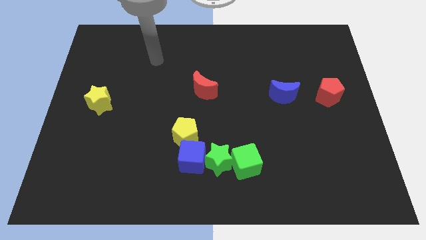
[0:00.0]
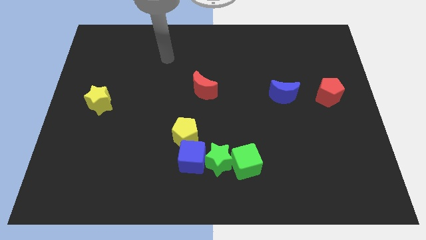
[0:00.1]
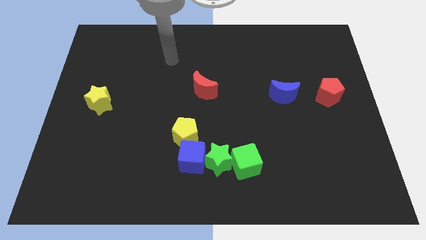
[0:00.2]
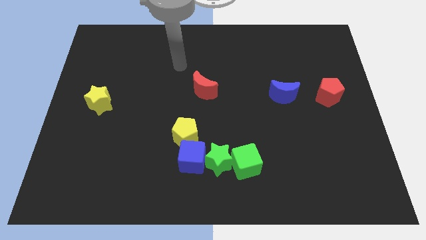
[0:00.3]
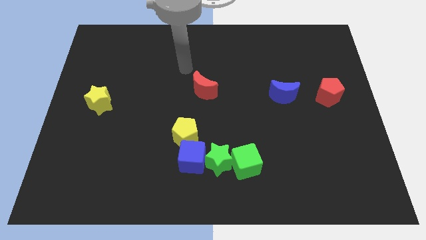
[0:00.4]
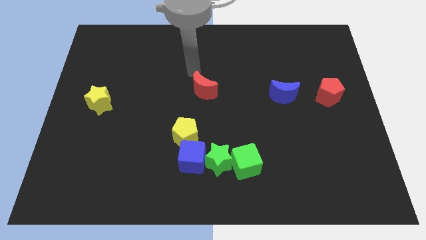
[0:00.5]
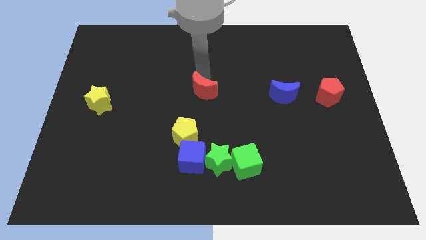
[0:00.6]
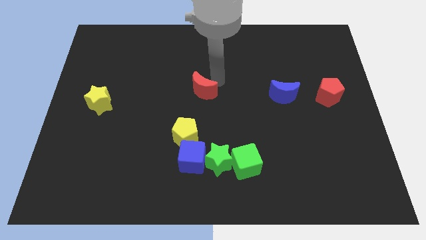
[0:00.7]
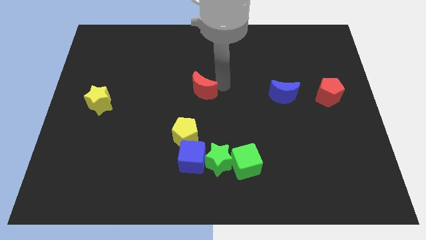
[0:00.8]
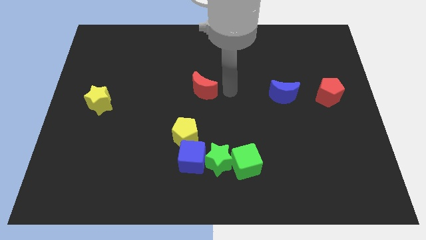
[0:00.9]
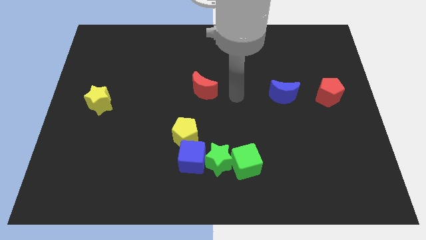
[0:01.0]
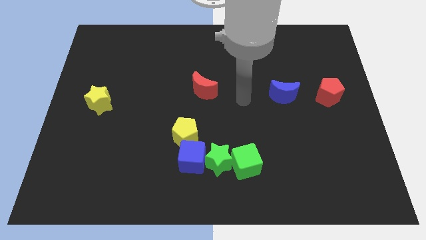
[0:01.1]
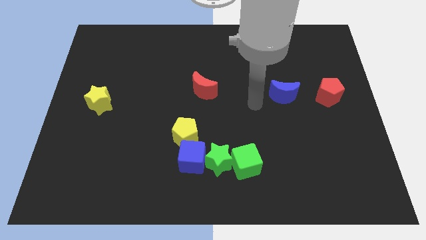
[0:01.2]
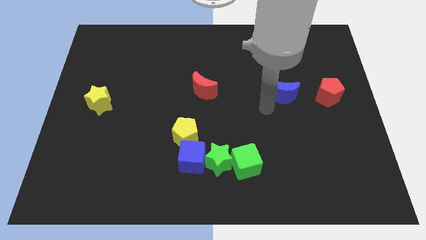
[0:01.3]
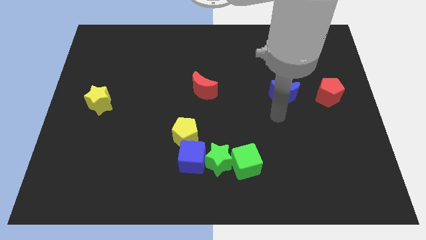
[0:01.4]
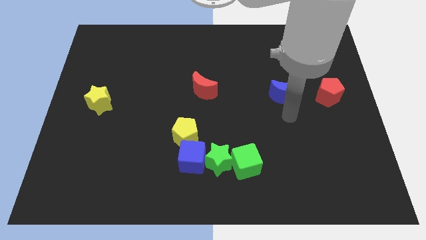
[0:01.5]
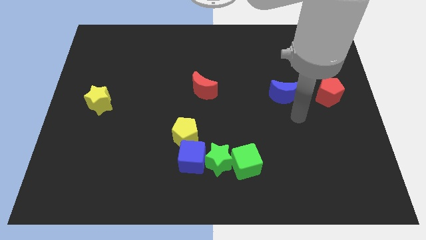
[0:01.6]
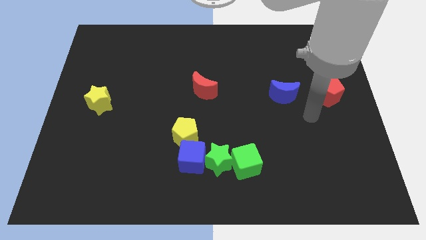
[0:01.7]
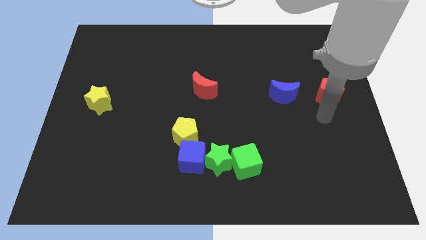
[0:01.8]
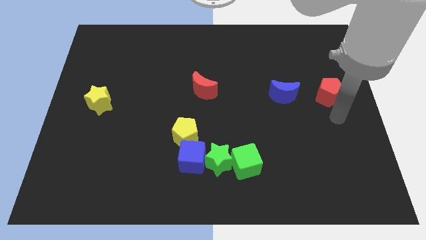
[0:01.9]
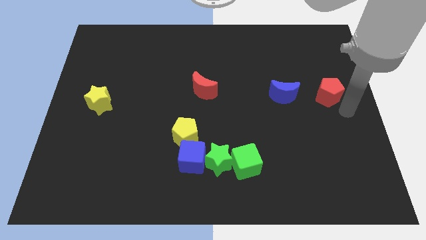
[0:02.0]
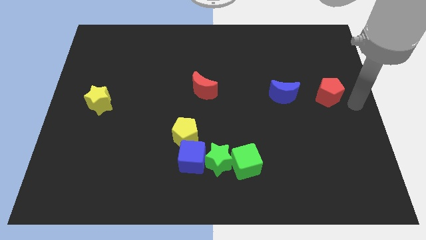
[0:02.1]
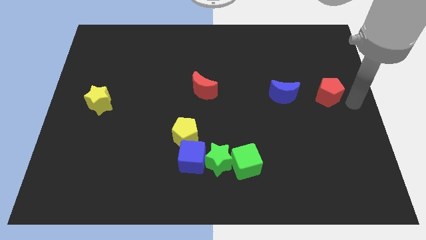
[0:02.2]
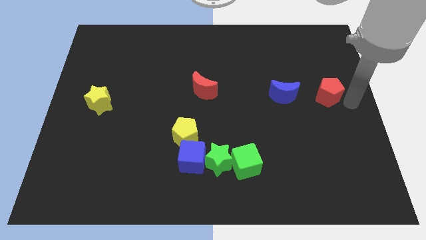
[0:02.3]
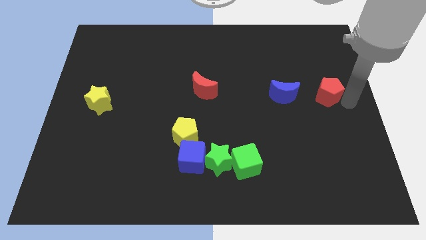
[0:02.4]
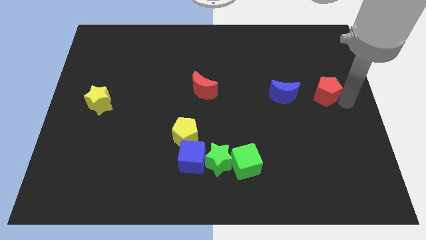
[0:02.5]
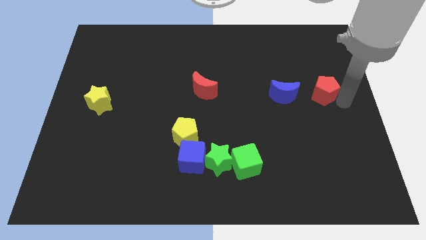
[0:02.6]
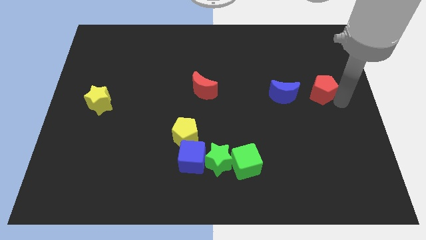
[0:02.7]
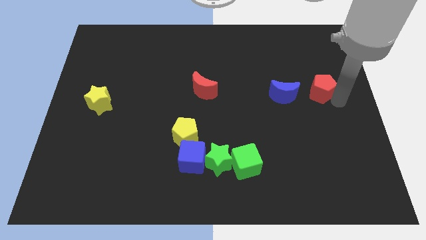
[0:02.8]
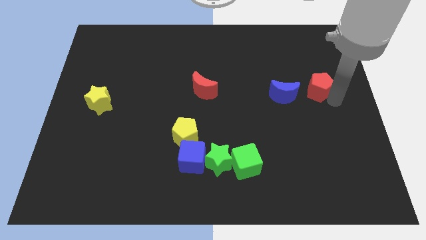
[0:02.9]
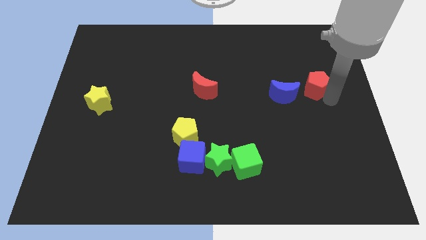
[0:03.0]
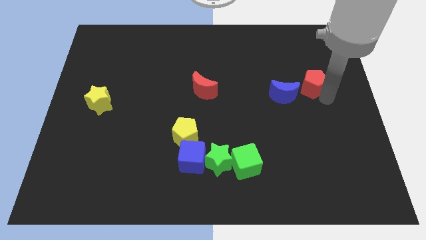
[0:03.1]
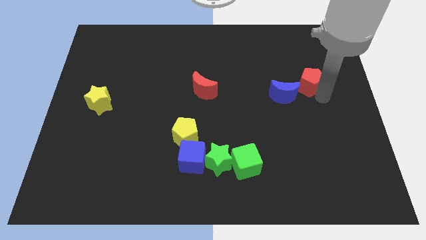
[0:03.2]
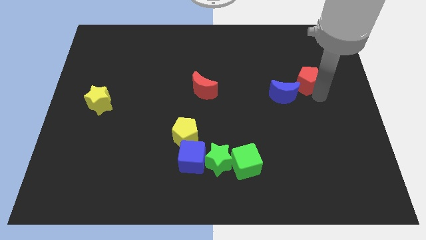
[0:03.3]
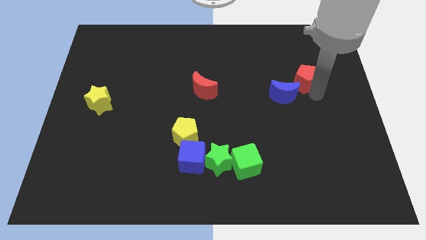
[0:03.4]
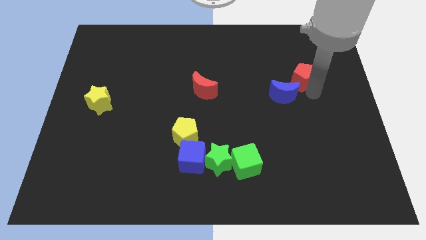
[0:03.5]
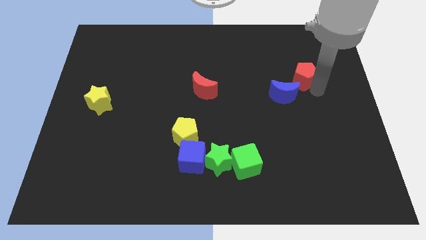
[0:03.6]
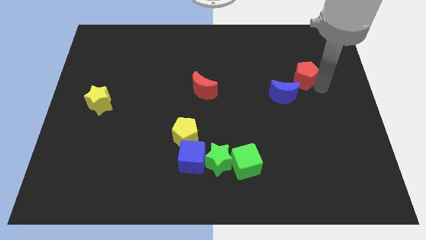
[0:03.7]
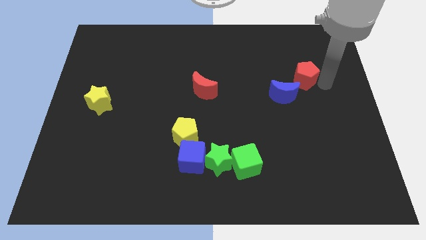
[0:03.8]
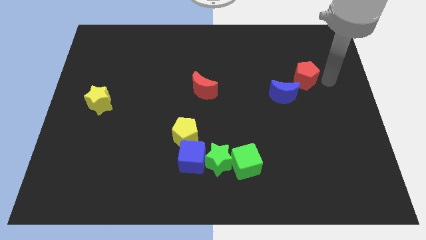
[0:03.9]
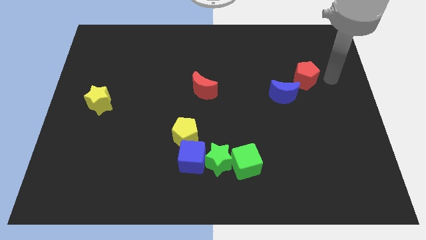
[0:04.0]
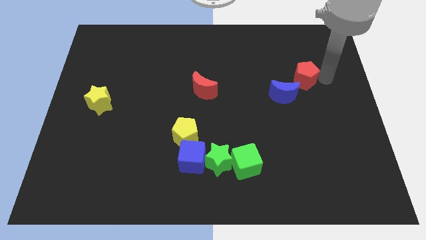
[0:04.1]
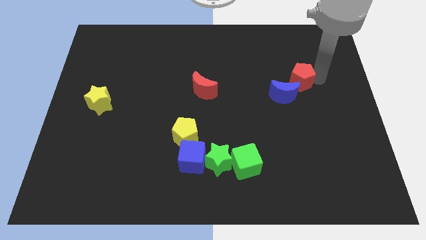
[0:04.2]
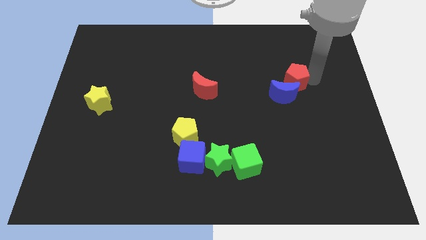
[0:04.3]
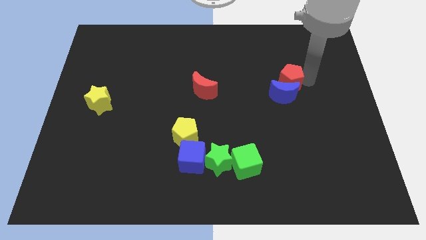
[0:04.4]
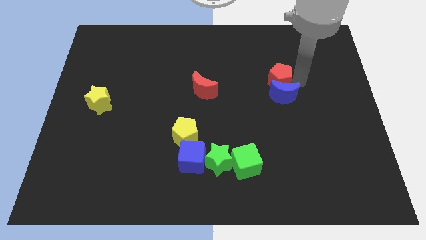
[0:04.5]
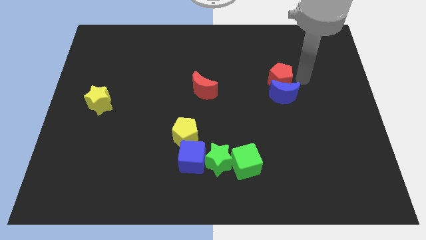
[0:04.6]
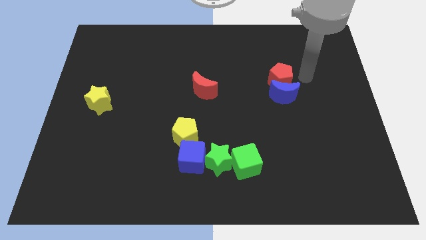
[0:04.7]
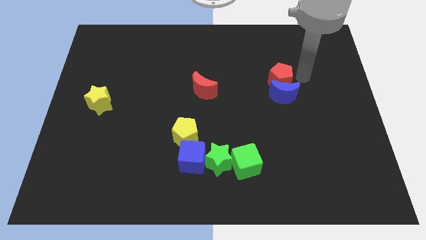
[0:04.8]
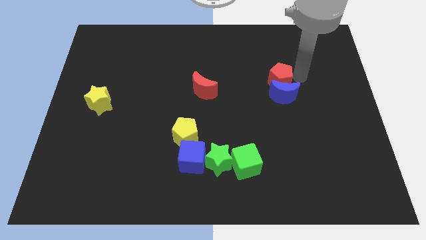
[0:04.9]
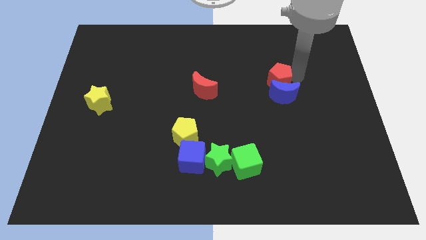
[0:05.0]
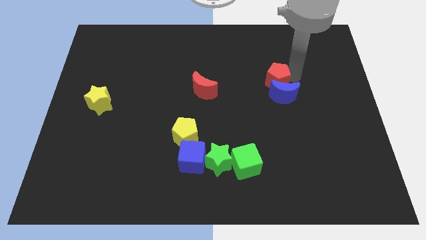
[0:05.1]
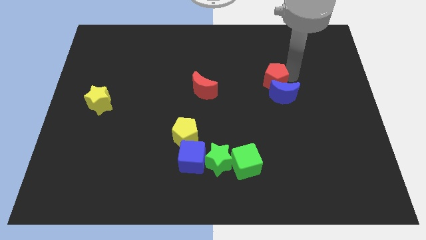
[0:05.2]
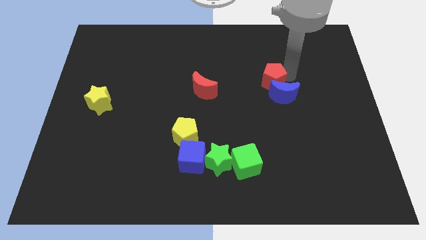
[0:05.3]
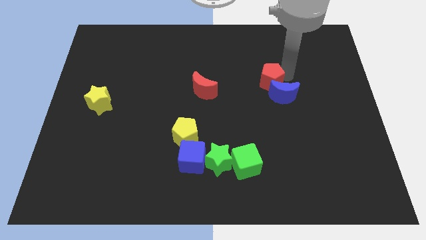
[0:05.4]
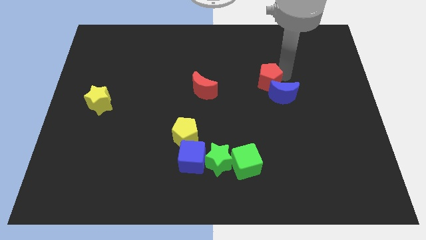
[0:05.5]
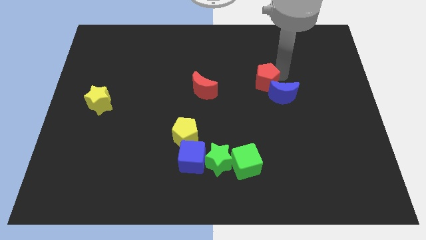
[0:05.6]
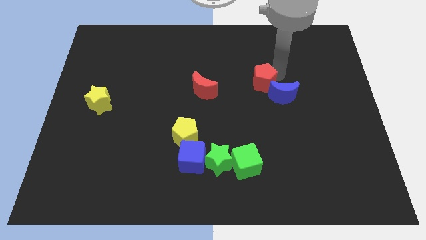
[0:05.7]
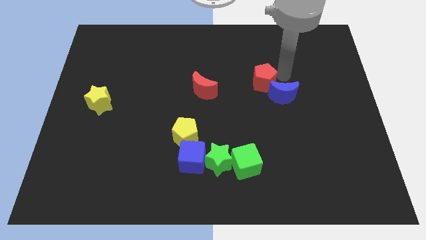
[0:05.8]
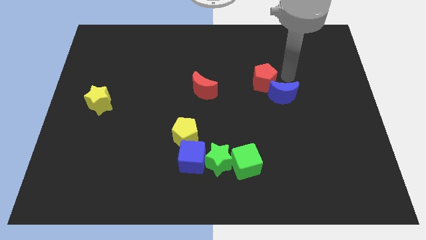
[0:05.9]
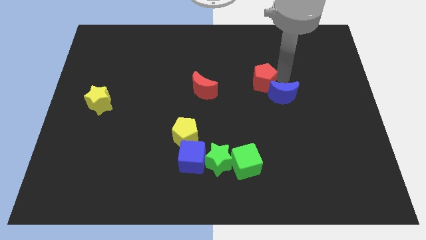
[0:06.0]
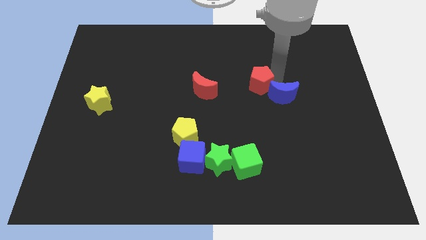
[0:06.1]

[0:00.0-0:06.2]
put the red pentagon to the middle

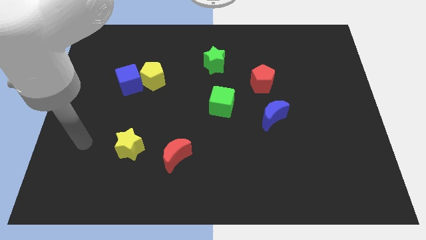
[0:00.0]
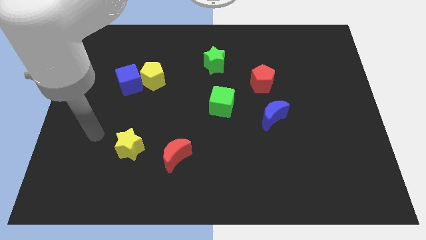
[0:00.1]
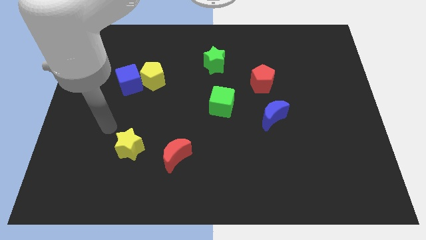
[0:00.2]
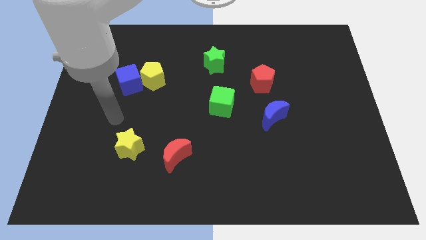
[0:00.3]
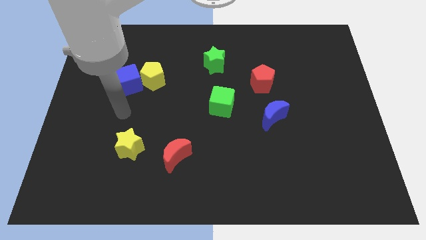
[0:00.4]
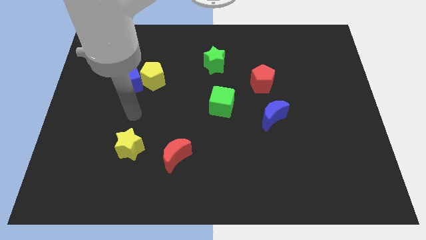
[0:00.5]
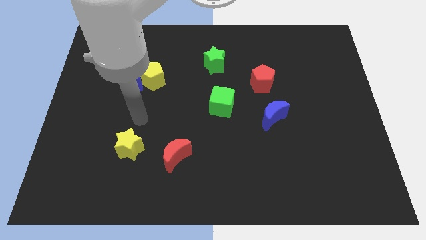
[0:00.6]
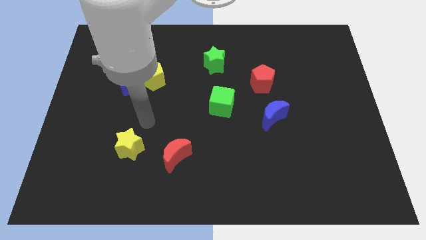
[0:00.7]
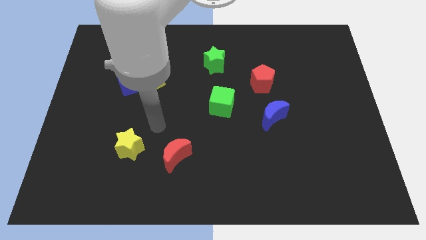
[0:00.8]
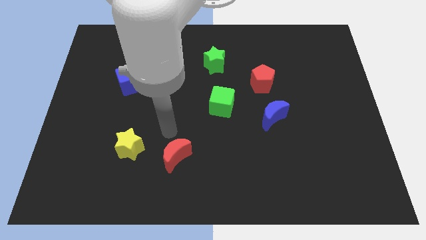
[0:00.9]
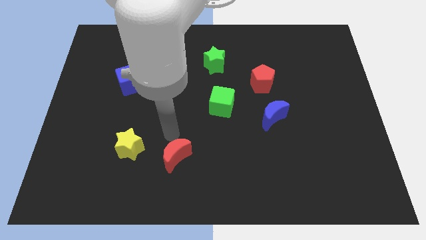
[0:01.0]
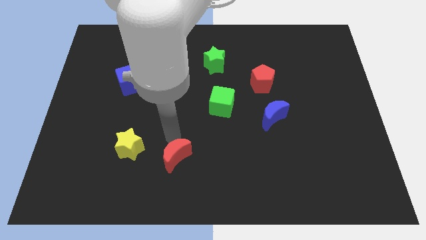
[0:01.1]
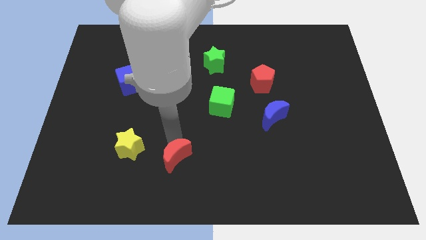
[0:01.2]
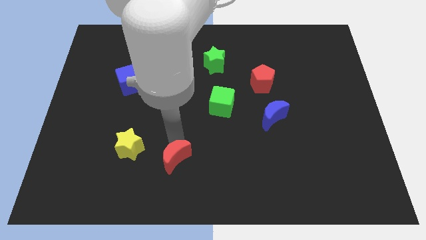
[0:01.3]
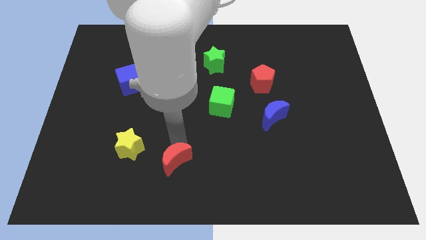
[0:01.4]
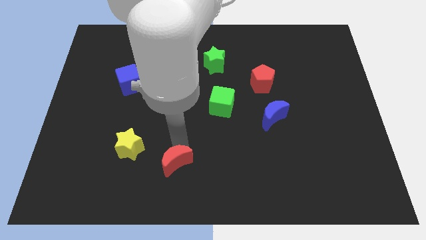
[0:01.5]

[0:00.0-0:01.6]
put the red moon to the bottom
